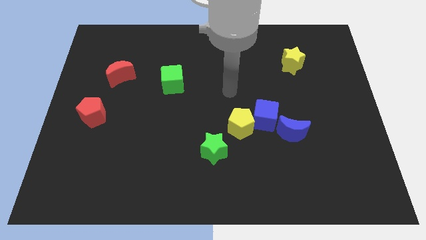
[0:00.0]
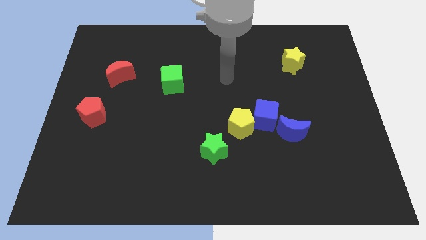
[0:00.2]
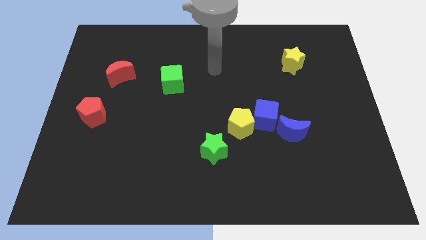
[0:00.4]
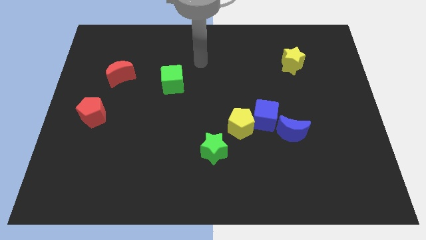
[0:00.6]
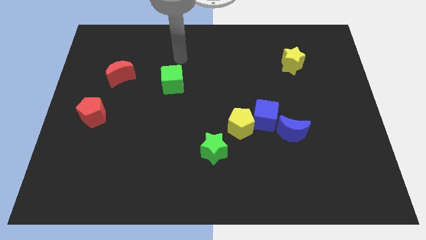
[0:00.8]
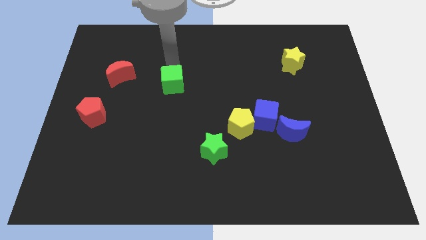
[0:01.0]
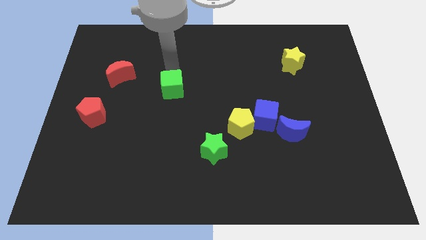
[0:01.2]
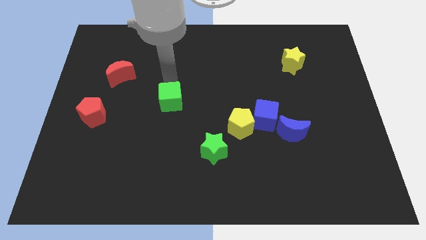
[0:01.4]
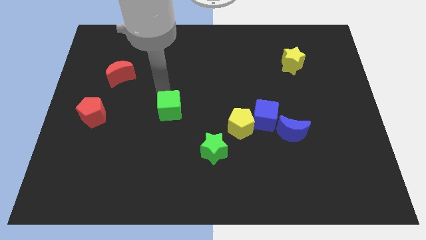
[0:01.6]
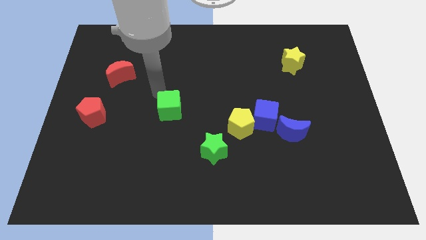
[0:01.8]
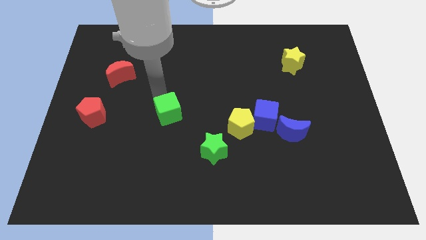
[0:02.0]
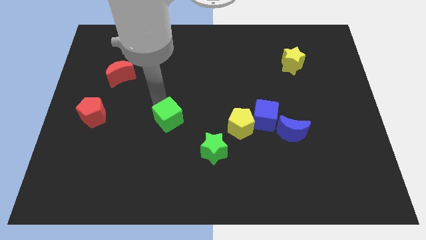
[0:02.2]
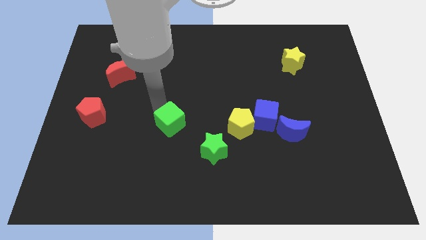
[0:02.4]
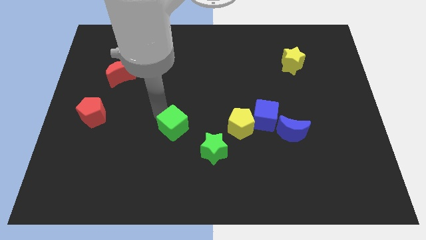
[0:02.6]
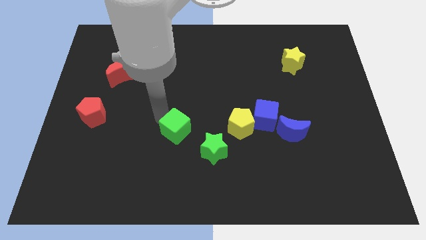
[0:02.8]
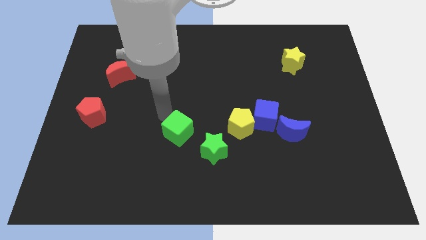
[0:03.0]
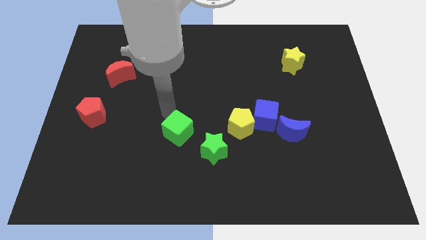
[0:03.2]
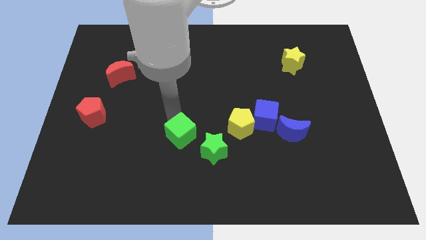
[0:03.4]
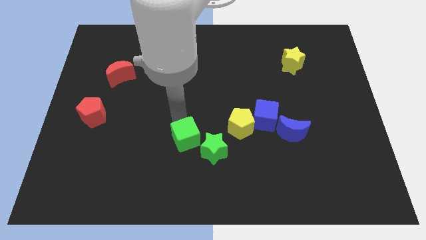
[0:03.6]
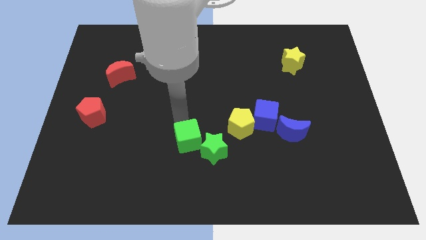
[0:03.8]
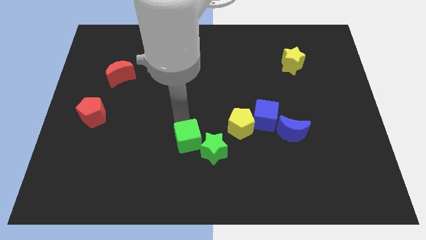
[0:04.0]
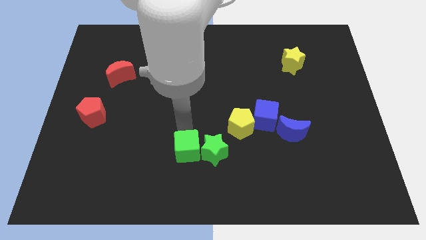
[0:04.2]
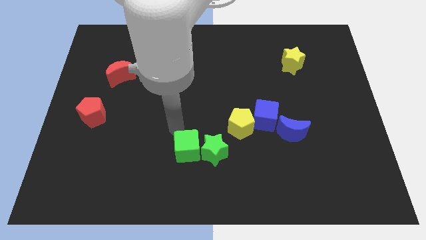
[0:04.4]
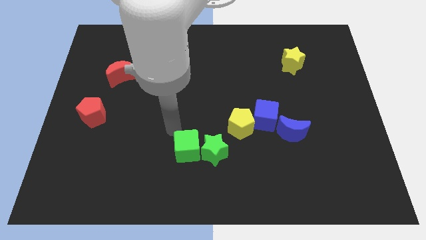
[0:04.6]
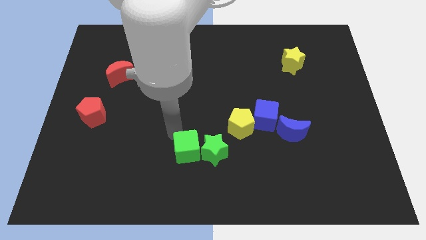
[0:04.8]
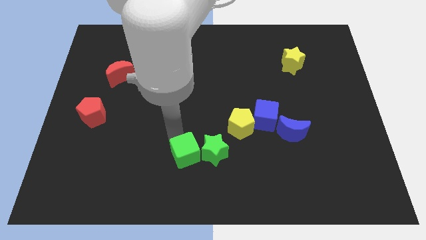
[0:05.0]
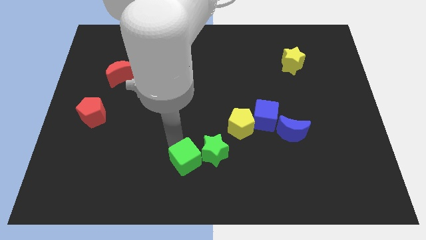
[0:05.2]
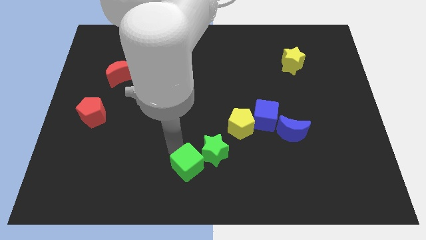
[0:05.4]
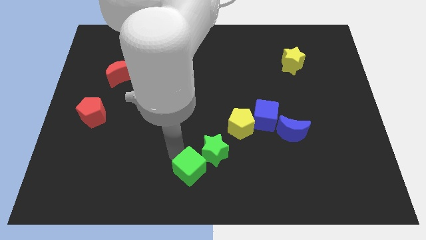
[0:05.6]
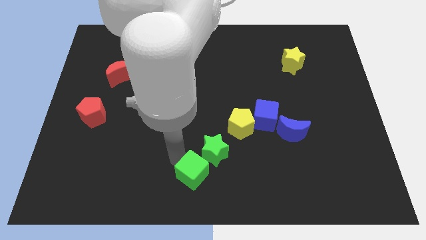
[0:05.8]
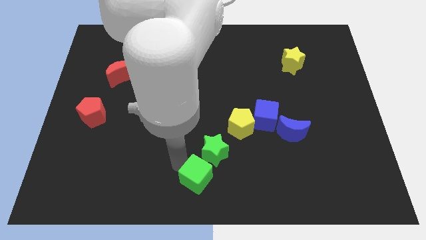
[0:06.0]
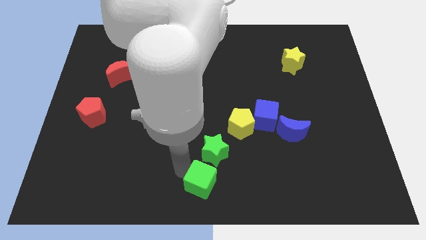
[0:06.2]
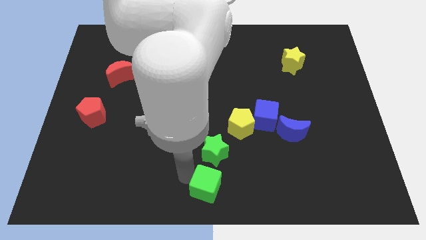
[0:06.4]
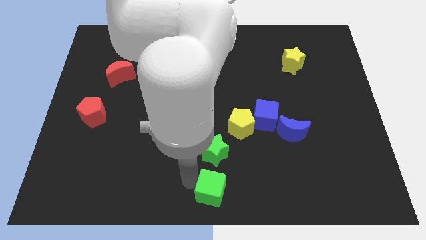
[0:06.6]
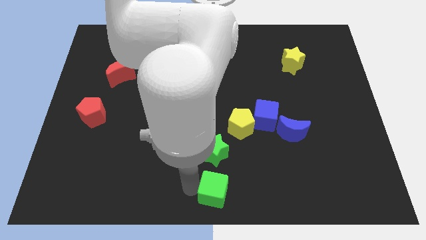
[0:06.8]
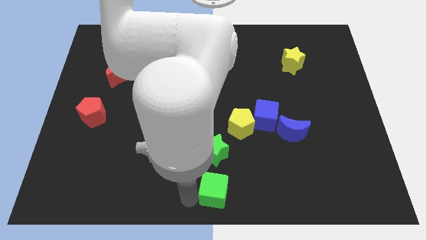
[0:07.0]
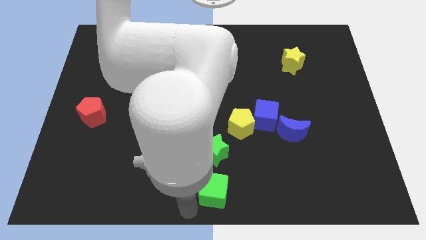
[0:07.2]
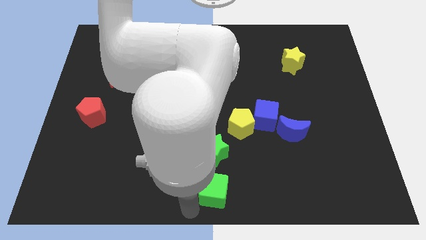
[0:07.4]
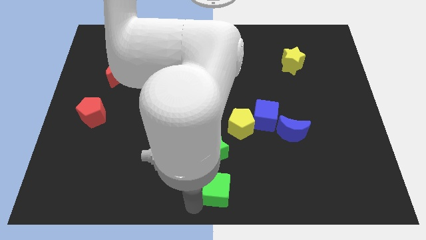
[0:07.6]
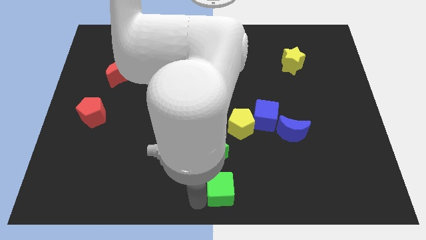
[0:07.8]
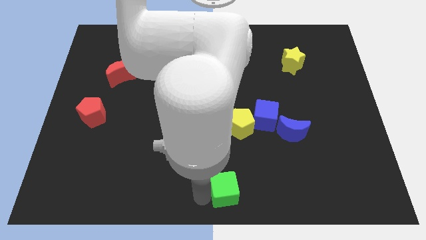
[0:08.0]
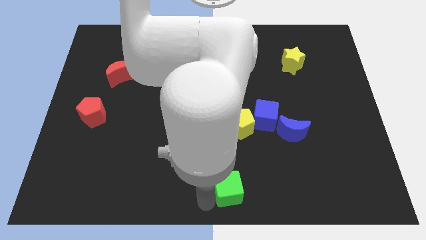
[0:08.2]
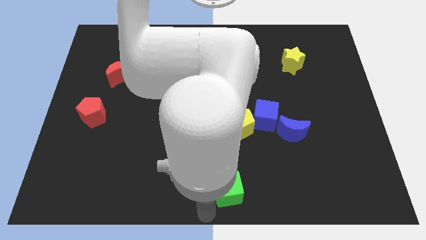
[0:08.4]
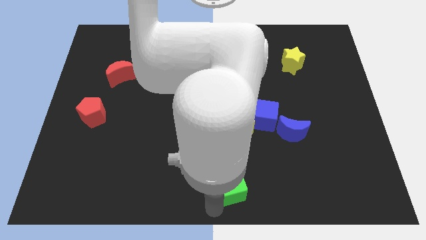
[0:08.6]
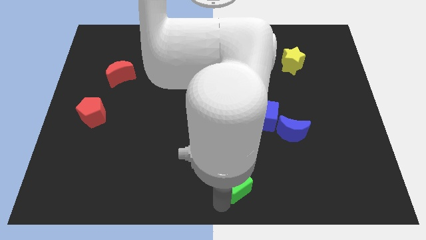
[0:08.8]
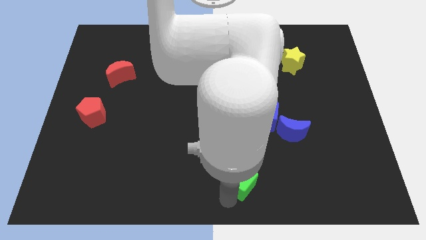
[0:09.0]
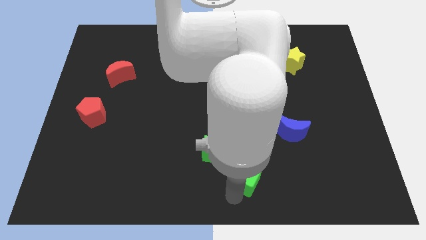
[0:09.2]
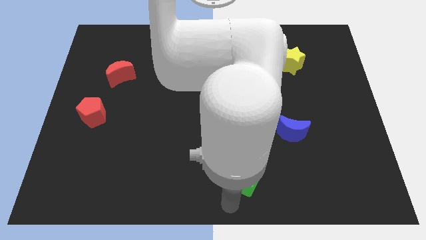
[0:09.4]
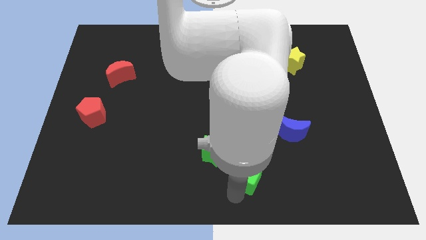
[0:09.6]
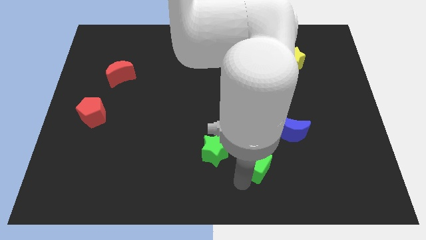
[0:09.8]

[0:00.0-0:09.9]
push the green cube to the bottom left side of the blue moon

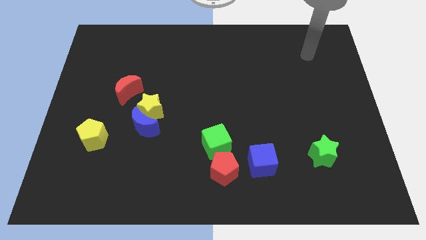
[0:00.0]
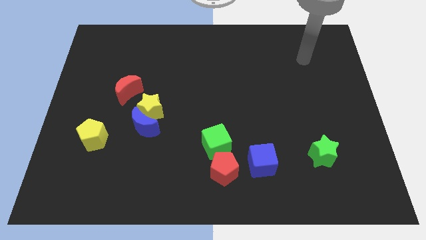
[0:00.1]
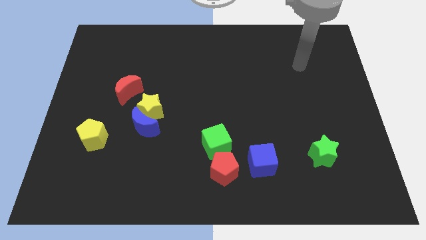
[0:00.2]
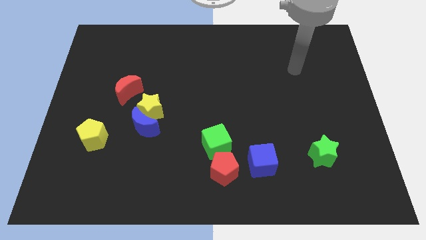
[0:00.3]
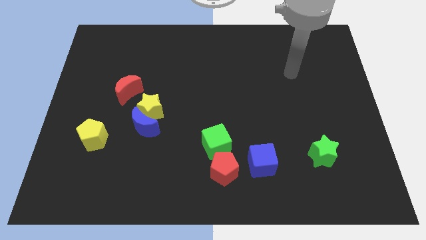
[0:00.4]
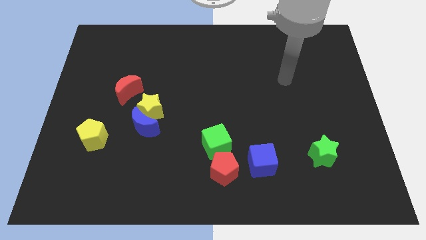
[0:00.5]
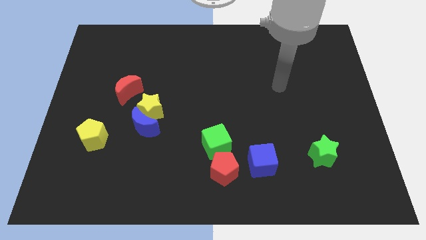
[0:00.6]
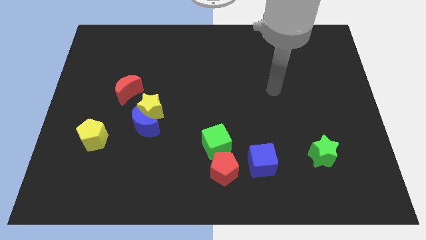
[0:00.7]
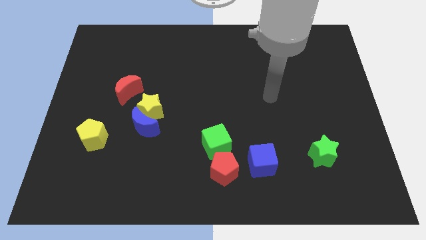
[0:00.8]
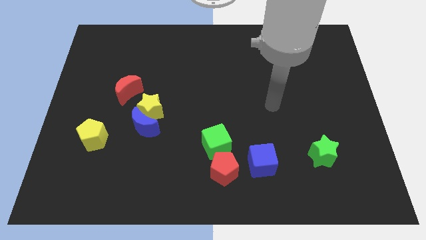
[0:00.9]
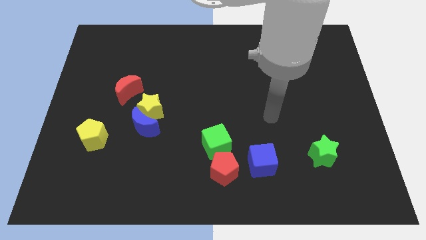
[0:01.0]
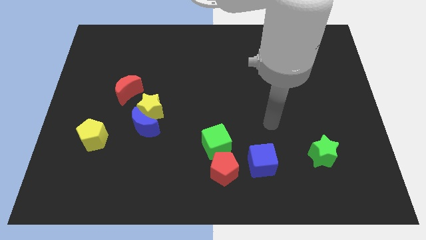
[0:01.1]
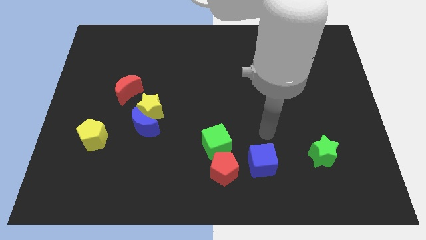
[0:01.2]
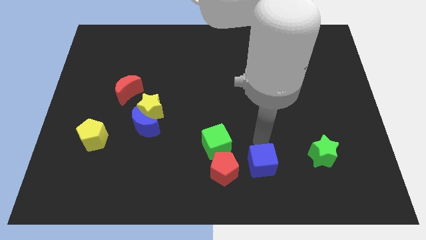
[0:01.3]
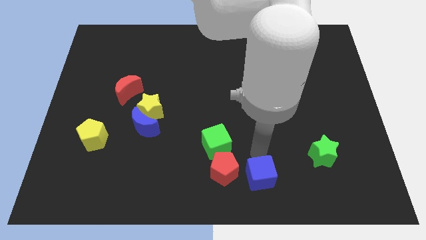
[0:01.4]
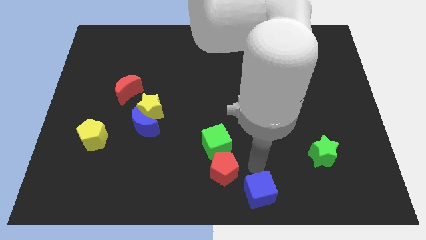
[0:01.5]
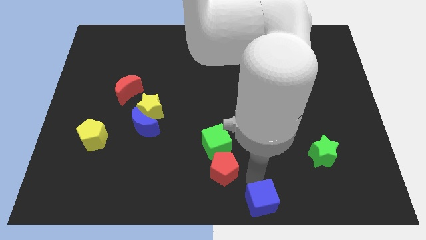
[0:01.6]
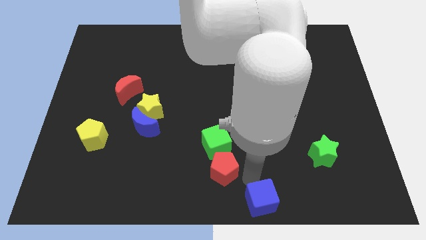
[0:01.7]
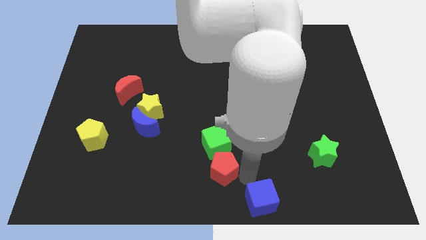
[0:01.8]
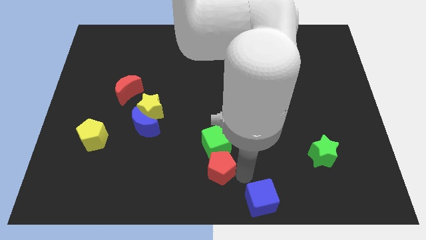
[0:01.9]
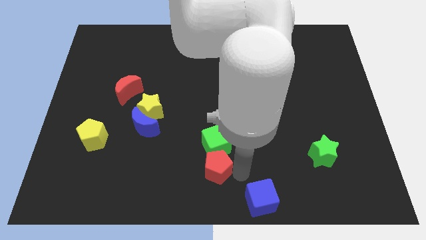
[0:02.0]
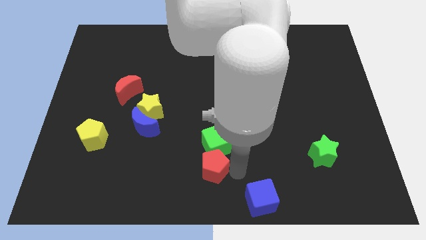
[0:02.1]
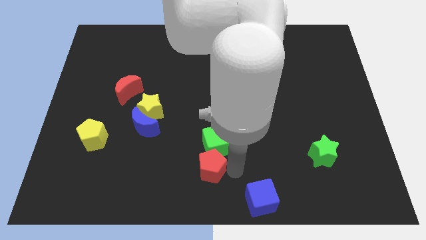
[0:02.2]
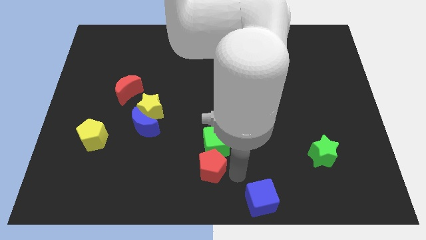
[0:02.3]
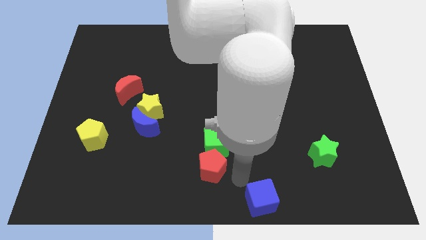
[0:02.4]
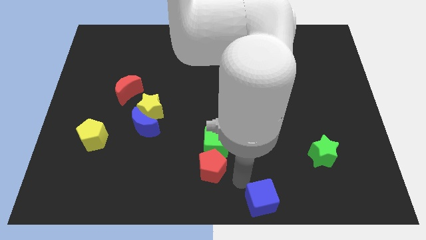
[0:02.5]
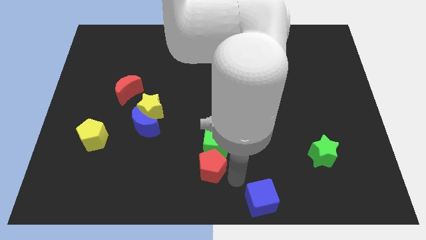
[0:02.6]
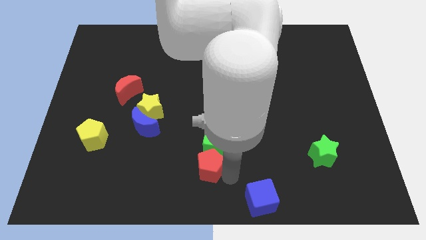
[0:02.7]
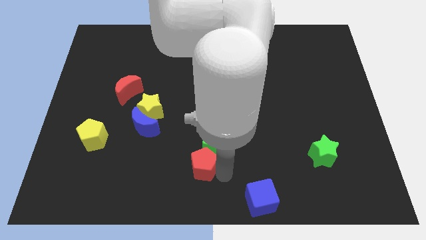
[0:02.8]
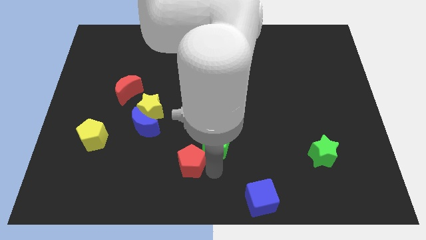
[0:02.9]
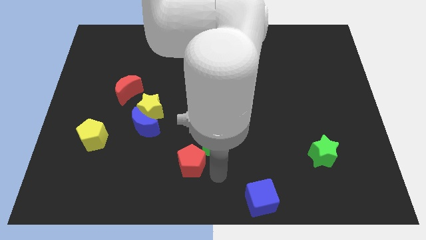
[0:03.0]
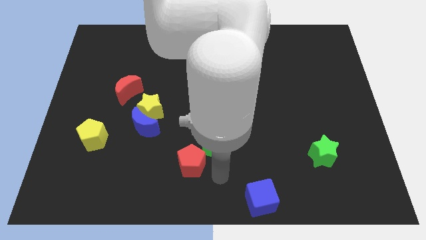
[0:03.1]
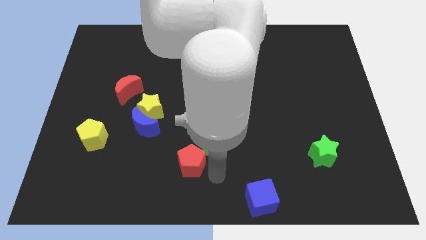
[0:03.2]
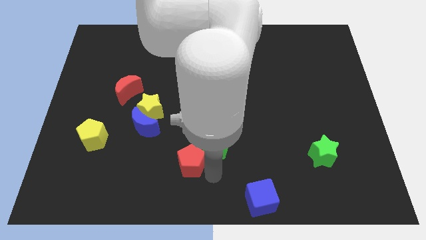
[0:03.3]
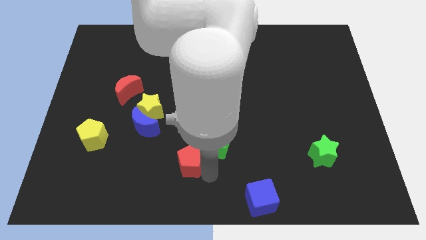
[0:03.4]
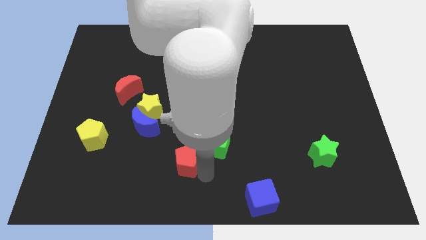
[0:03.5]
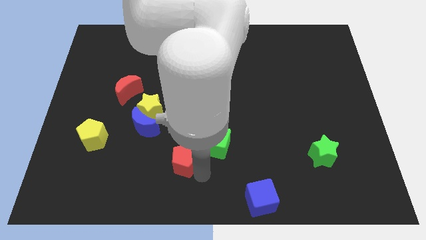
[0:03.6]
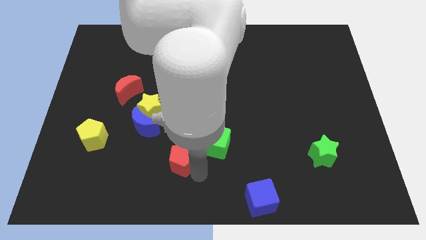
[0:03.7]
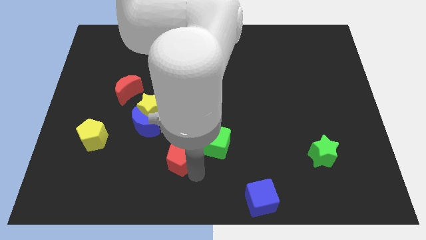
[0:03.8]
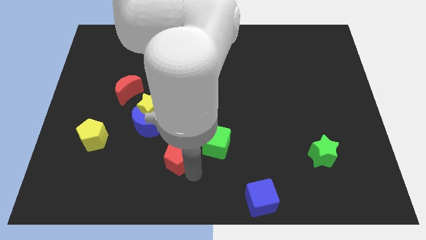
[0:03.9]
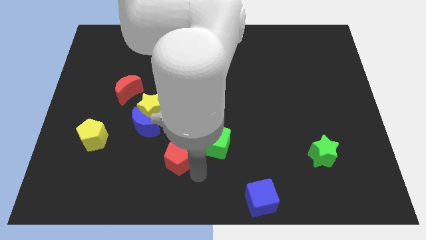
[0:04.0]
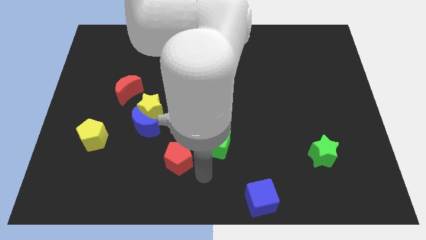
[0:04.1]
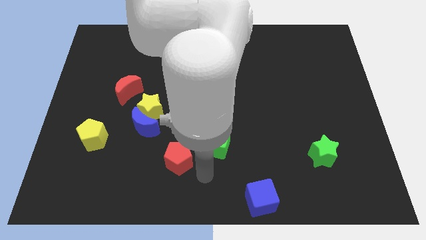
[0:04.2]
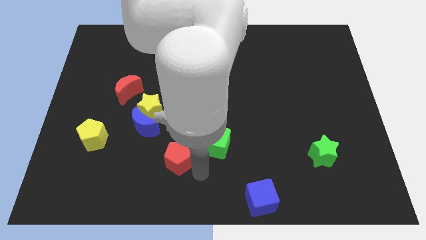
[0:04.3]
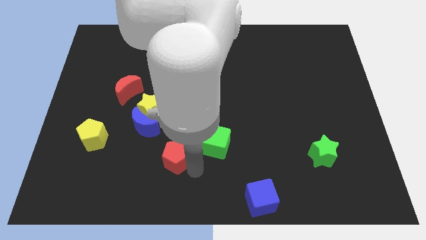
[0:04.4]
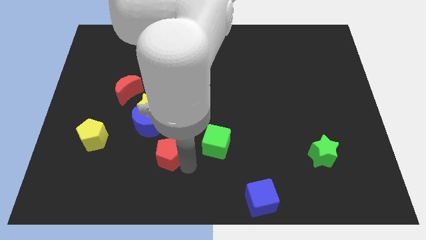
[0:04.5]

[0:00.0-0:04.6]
put the red pentagon to the bottom of the yellow star
